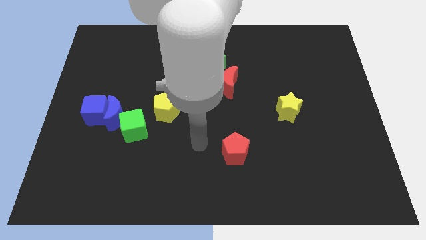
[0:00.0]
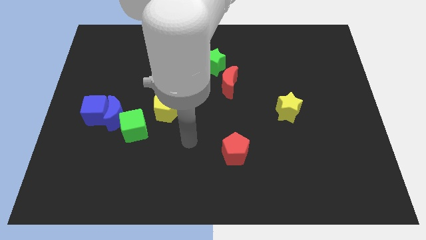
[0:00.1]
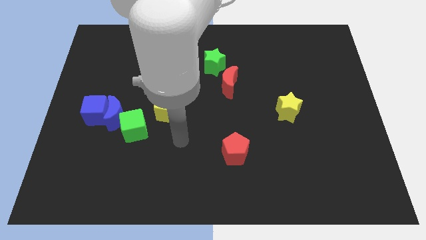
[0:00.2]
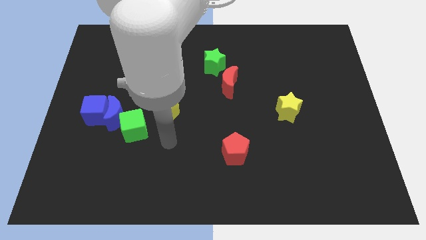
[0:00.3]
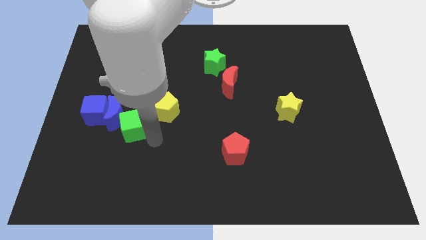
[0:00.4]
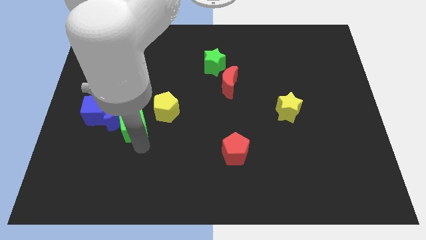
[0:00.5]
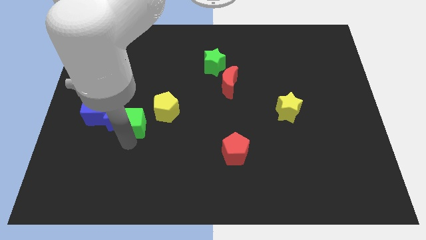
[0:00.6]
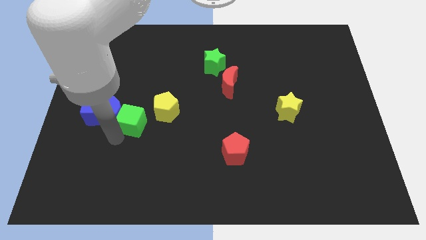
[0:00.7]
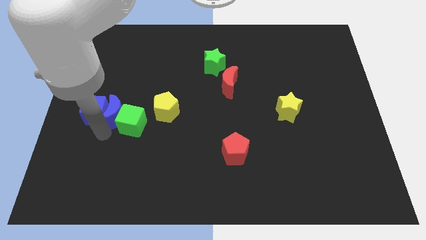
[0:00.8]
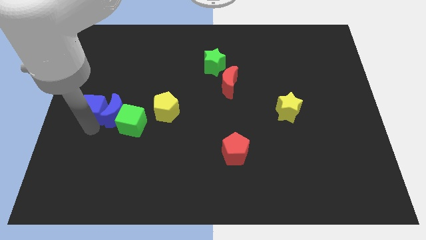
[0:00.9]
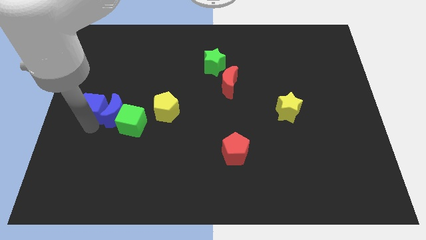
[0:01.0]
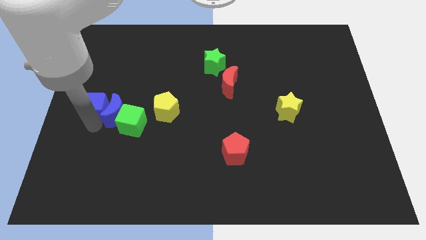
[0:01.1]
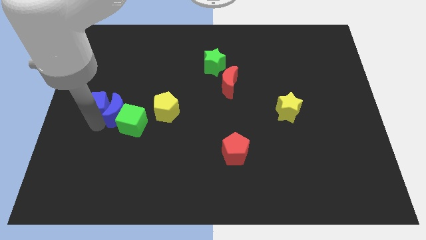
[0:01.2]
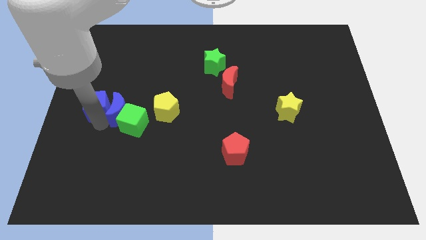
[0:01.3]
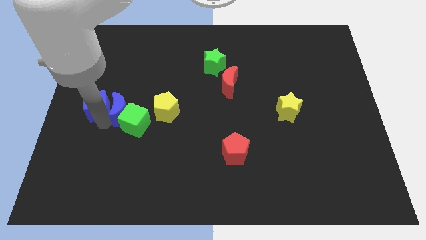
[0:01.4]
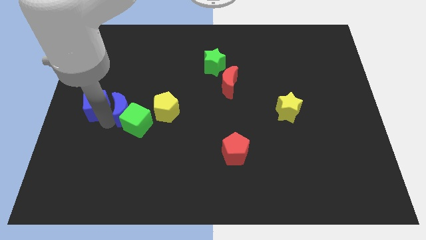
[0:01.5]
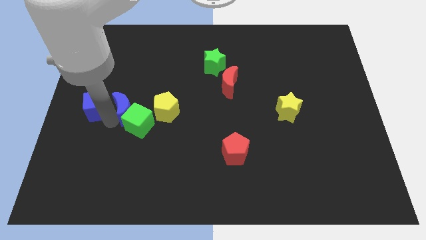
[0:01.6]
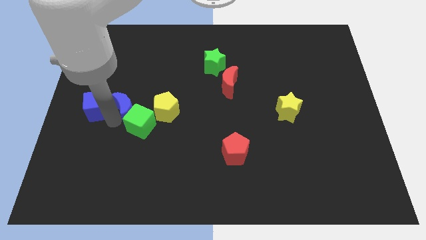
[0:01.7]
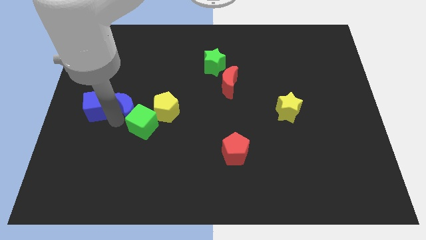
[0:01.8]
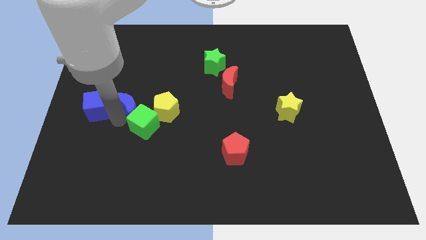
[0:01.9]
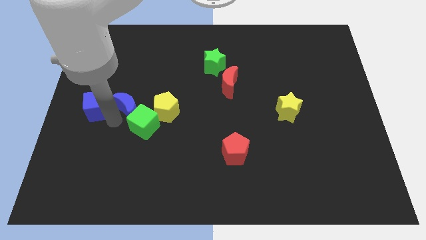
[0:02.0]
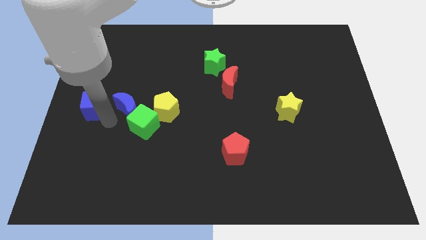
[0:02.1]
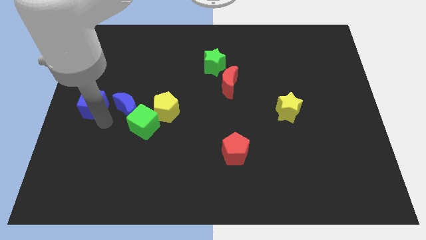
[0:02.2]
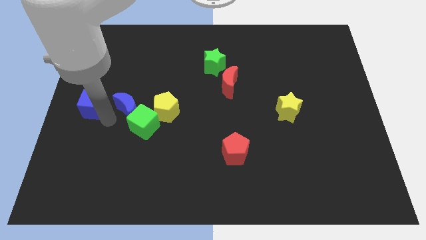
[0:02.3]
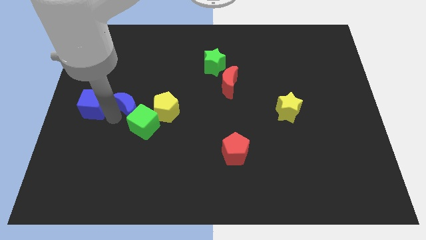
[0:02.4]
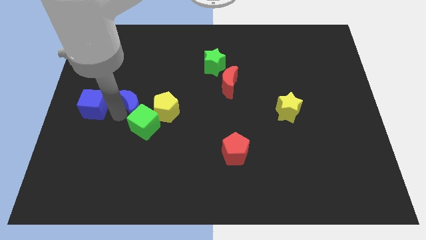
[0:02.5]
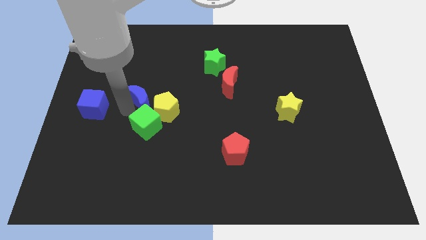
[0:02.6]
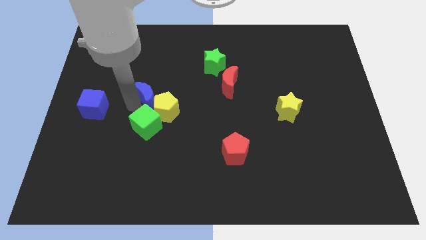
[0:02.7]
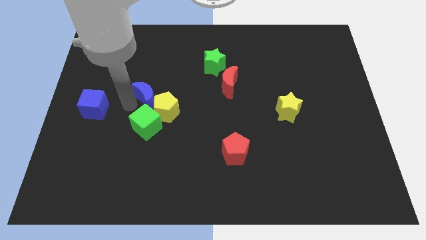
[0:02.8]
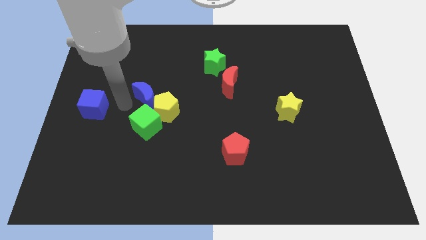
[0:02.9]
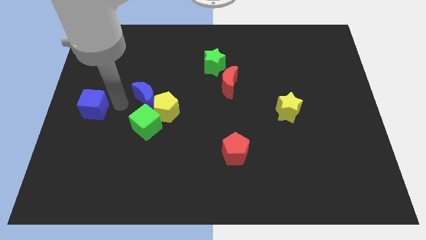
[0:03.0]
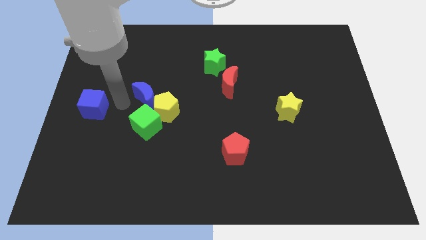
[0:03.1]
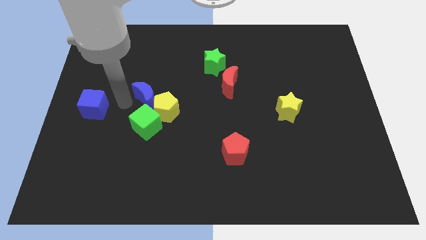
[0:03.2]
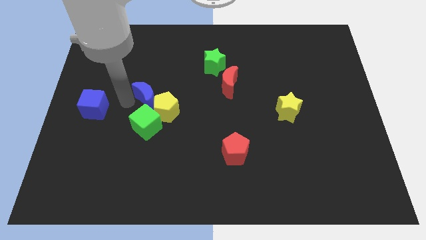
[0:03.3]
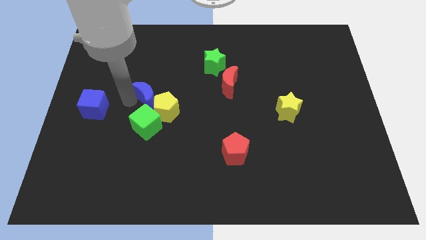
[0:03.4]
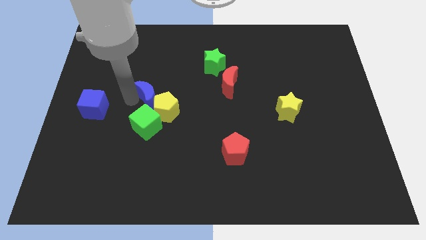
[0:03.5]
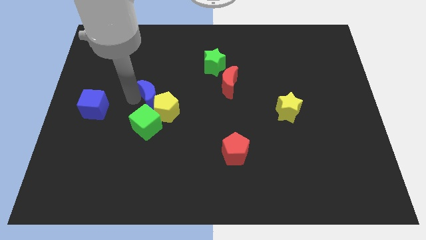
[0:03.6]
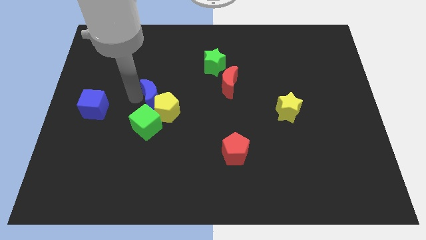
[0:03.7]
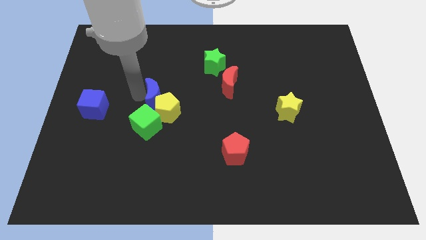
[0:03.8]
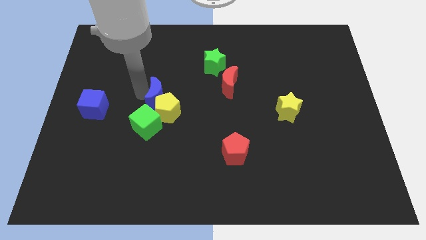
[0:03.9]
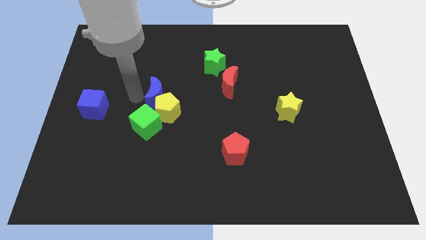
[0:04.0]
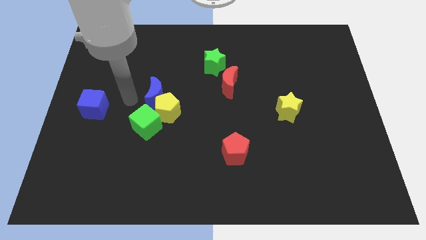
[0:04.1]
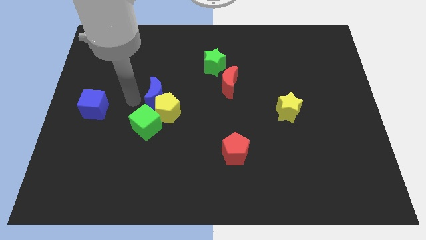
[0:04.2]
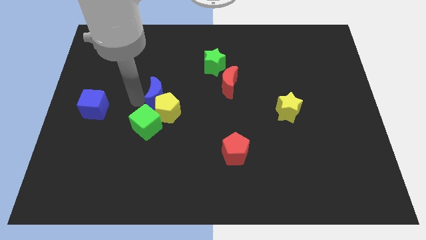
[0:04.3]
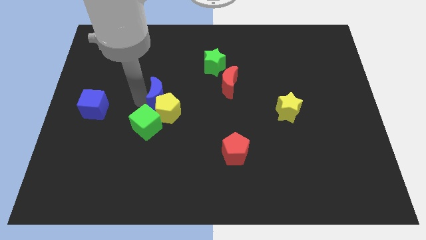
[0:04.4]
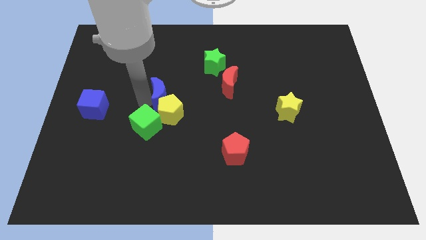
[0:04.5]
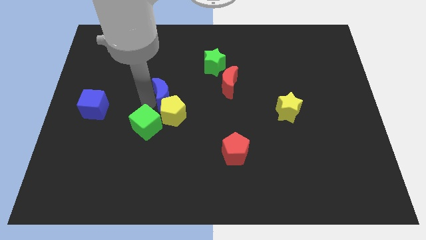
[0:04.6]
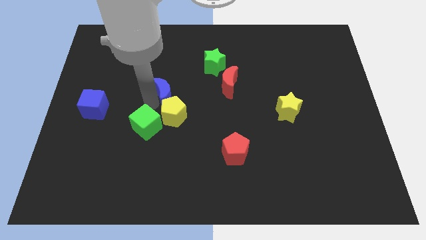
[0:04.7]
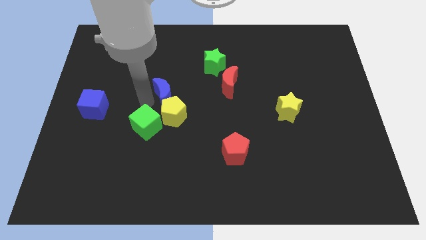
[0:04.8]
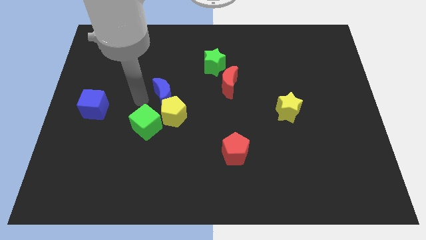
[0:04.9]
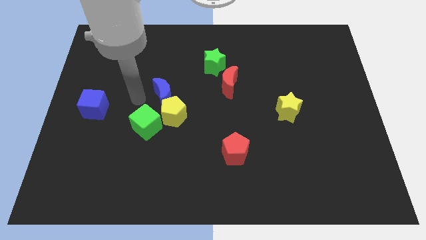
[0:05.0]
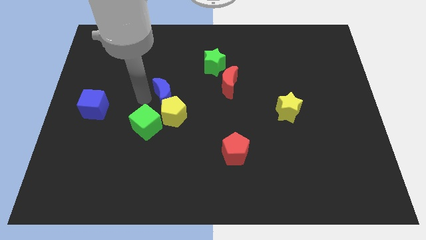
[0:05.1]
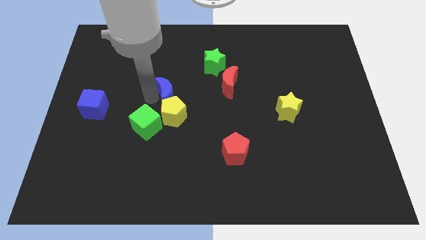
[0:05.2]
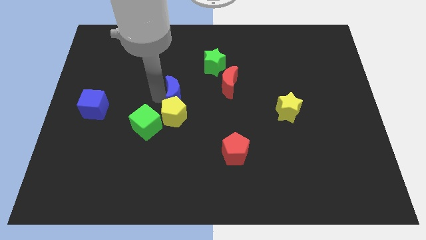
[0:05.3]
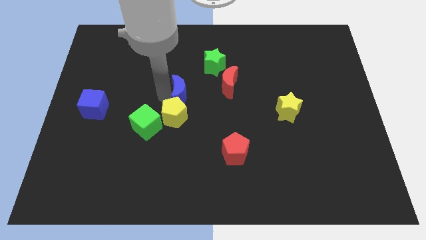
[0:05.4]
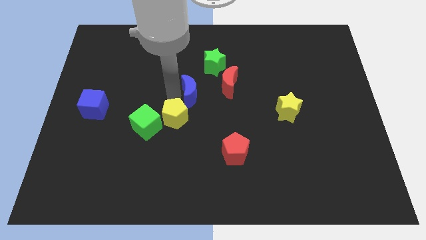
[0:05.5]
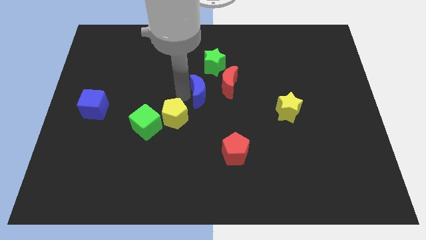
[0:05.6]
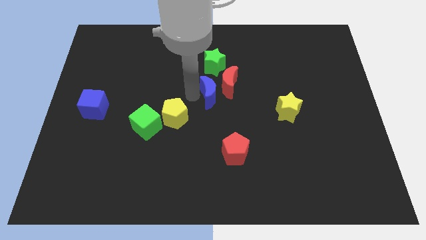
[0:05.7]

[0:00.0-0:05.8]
push the blue moon close to the red moon

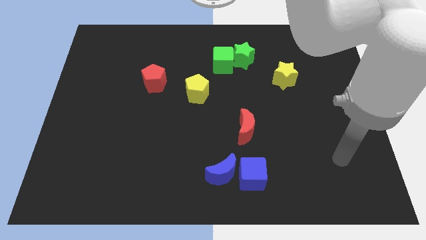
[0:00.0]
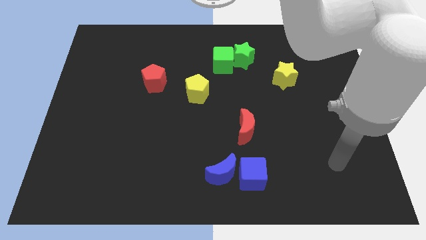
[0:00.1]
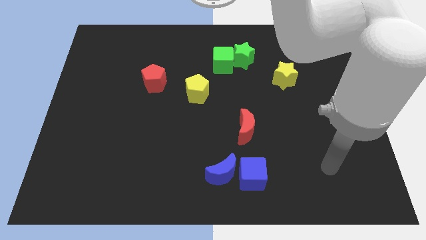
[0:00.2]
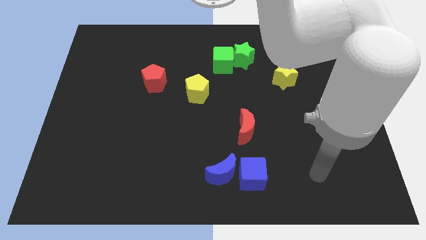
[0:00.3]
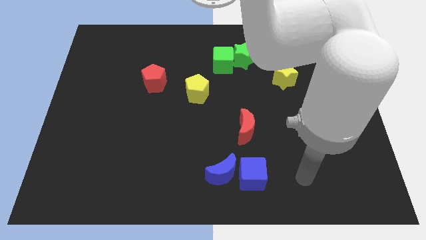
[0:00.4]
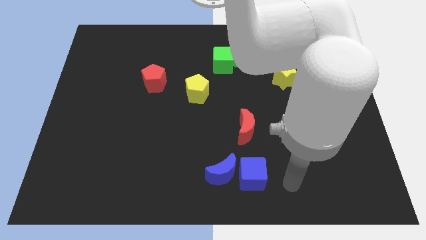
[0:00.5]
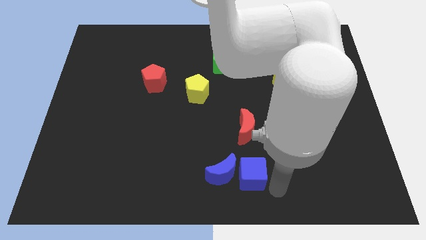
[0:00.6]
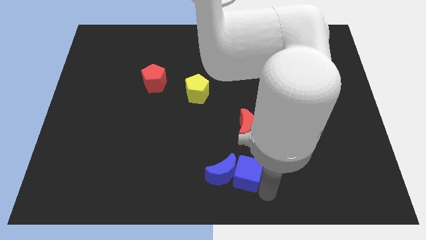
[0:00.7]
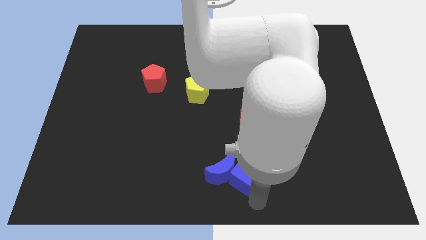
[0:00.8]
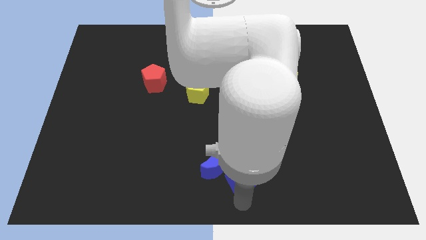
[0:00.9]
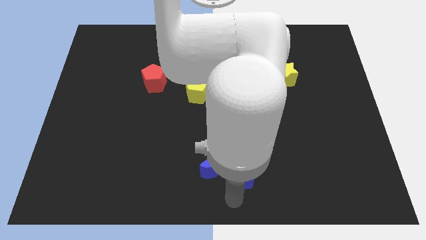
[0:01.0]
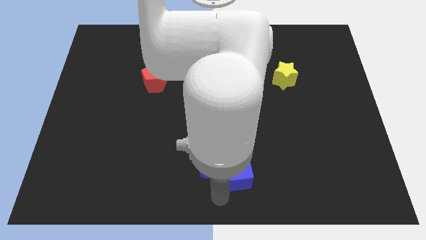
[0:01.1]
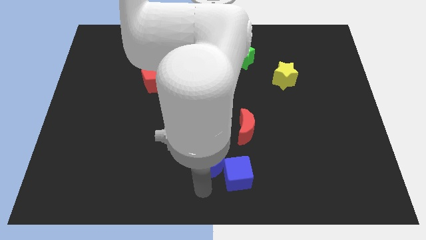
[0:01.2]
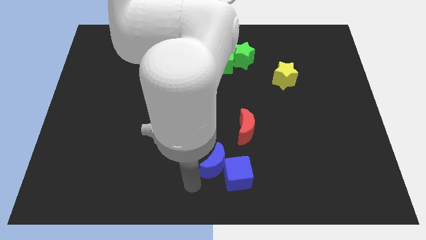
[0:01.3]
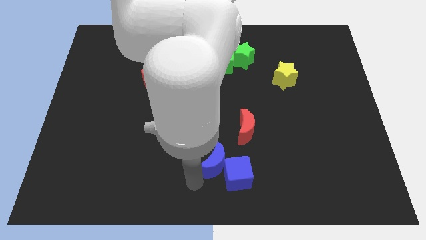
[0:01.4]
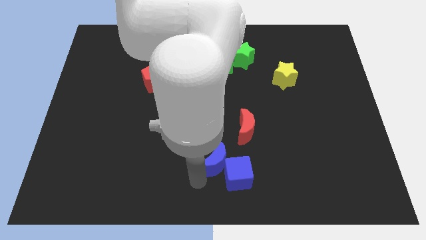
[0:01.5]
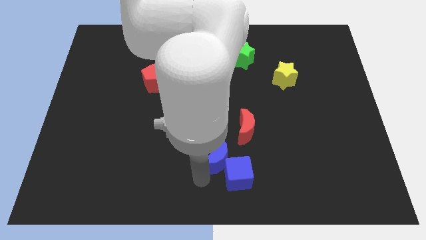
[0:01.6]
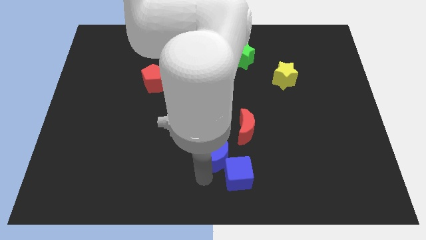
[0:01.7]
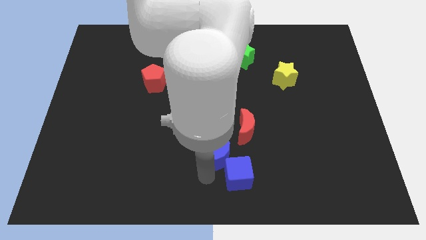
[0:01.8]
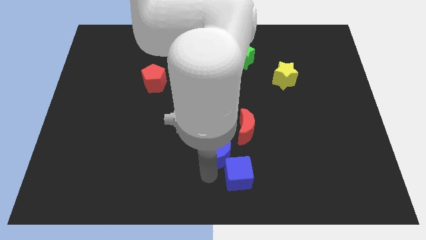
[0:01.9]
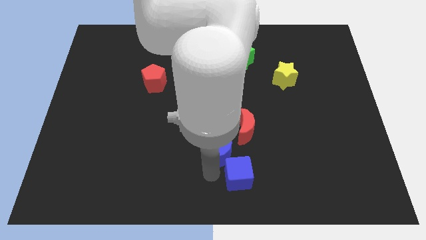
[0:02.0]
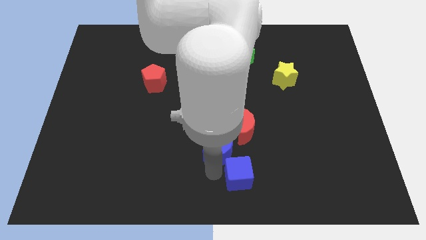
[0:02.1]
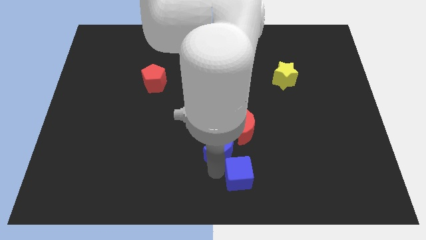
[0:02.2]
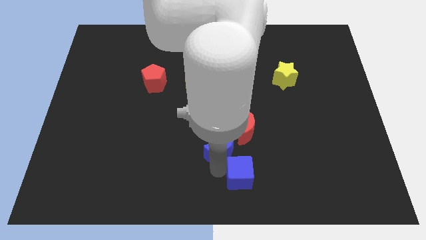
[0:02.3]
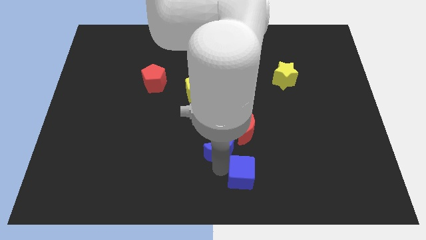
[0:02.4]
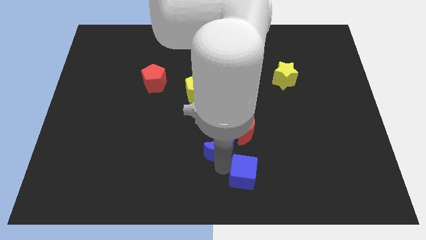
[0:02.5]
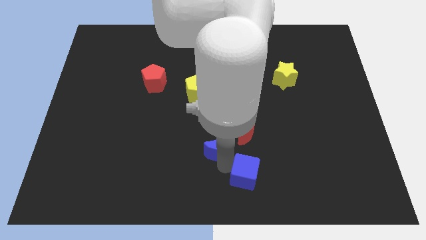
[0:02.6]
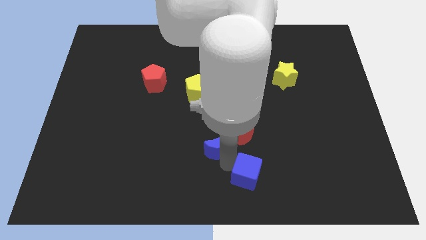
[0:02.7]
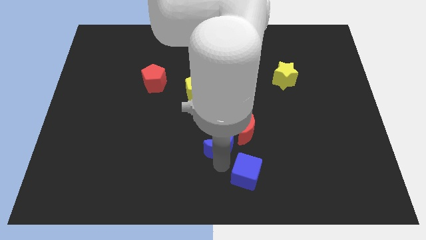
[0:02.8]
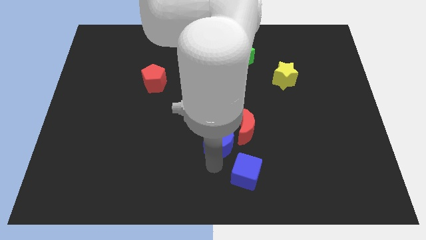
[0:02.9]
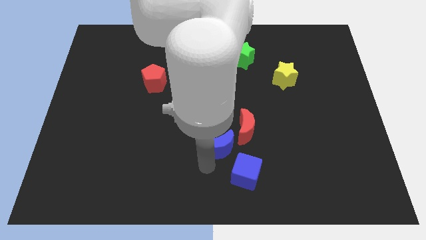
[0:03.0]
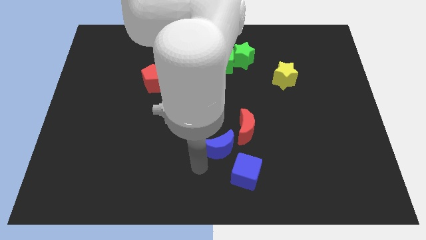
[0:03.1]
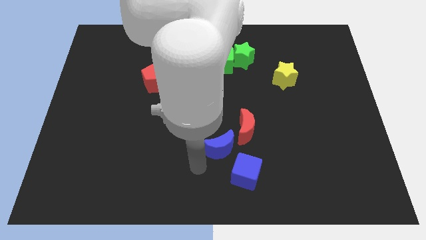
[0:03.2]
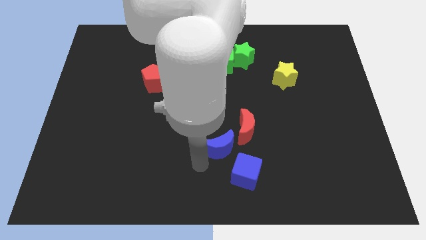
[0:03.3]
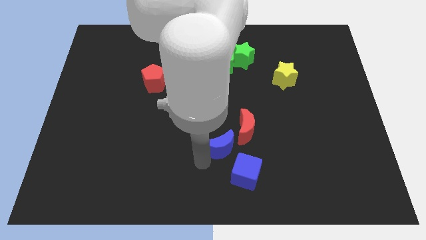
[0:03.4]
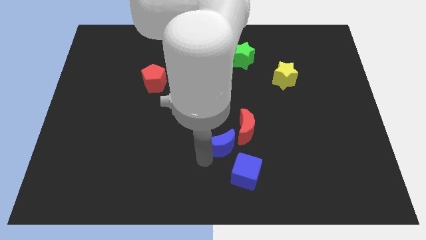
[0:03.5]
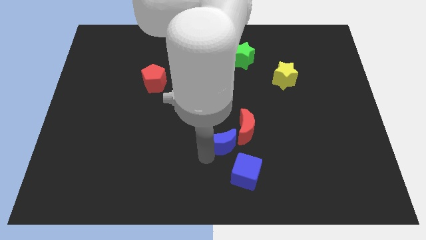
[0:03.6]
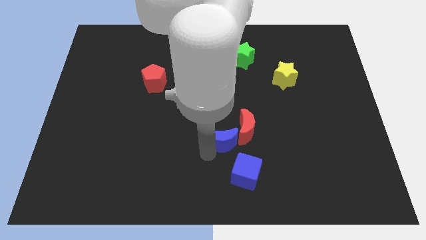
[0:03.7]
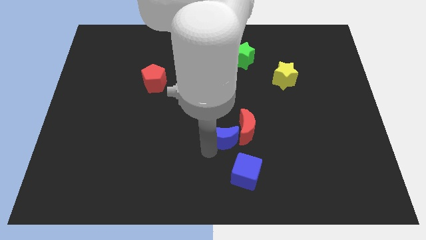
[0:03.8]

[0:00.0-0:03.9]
push the blue moon to the red moon
